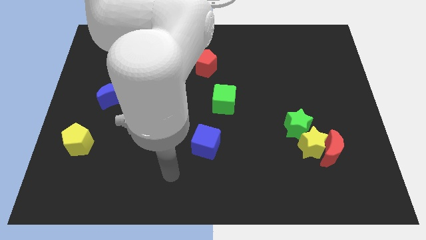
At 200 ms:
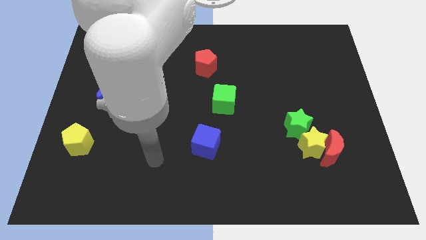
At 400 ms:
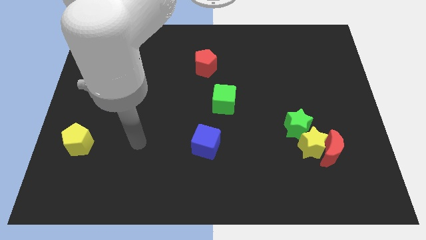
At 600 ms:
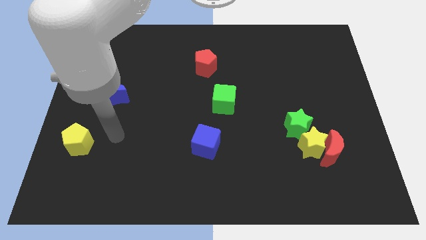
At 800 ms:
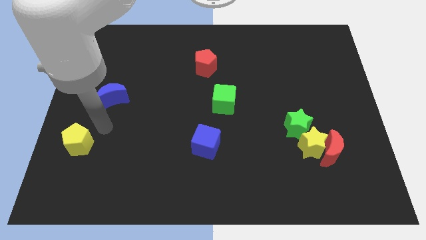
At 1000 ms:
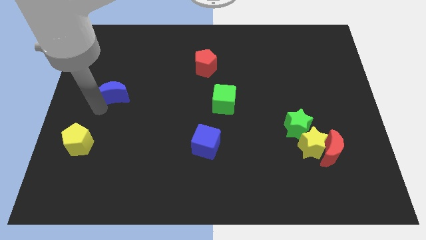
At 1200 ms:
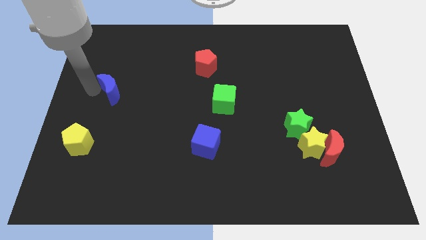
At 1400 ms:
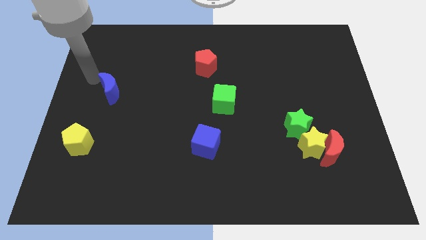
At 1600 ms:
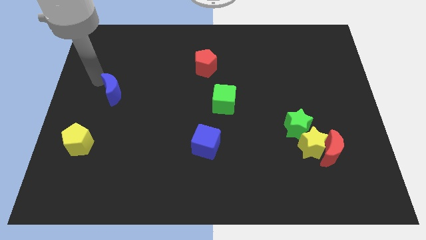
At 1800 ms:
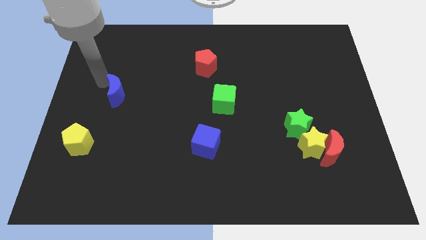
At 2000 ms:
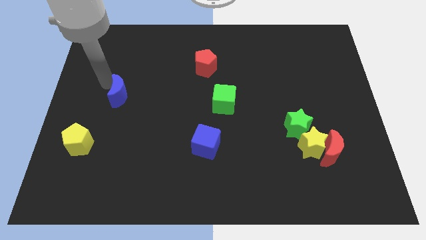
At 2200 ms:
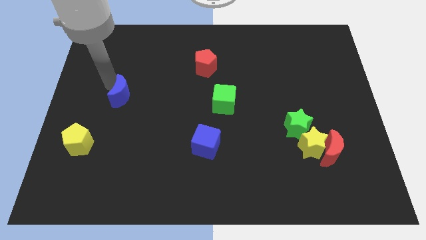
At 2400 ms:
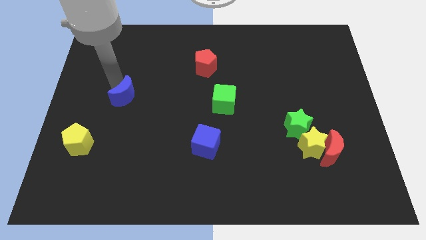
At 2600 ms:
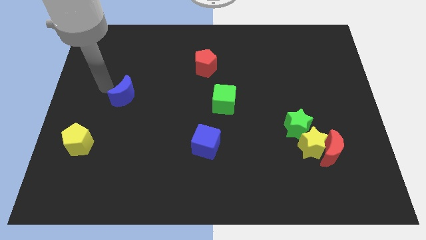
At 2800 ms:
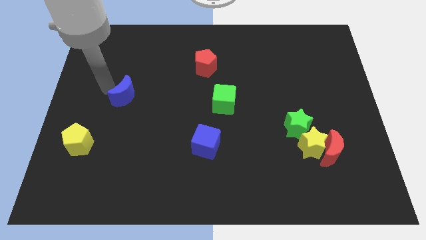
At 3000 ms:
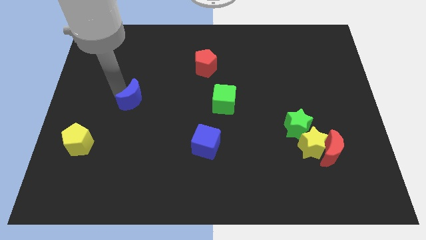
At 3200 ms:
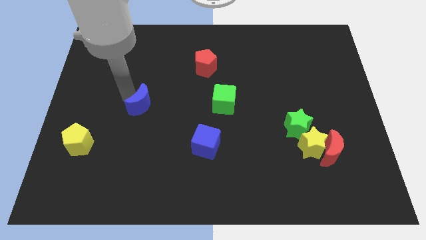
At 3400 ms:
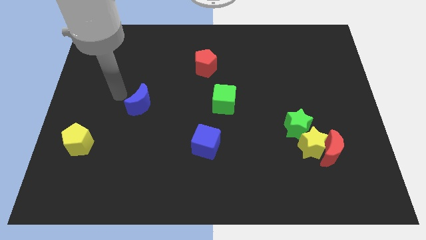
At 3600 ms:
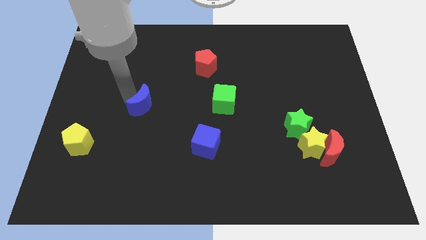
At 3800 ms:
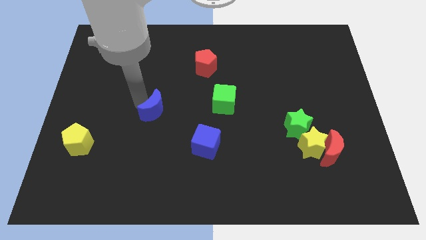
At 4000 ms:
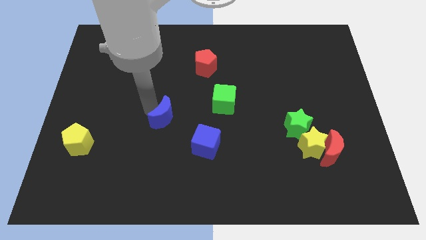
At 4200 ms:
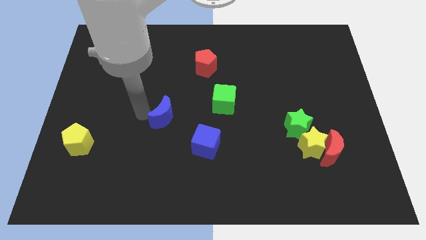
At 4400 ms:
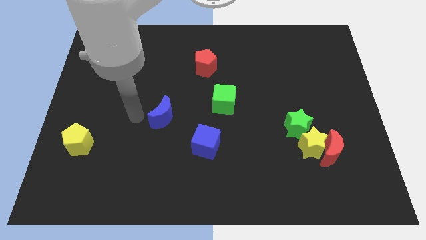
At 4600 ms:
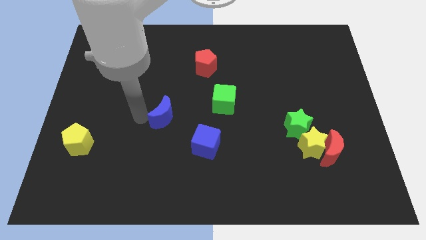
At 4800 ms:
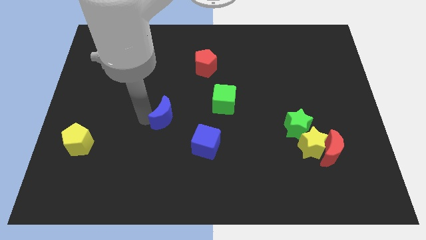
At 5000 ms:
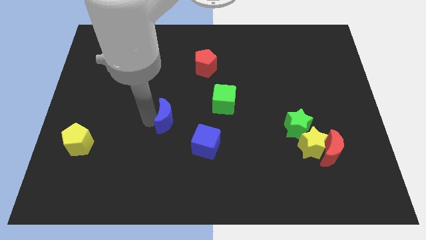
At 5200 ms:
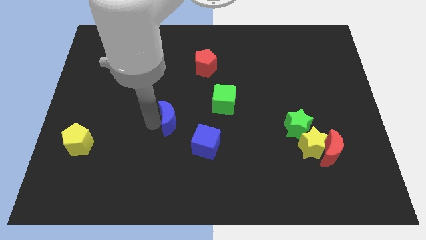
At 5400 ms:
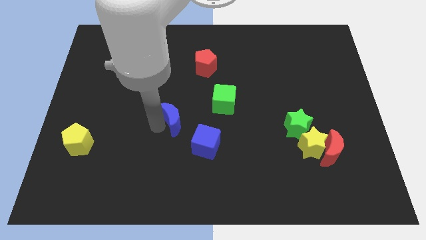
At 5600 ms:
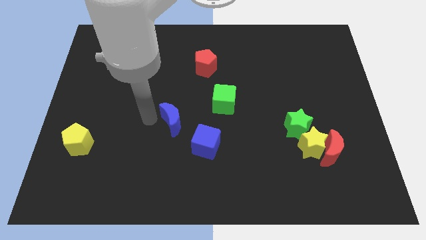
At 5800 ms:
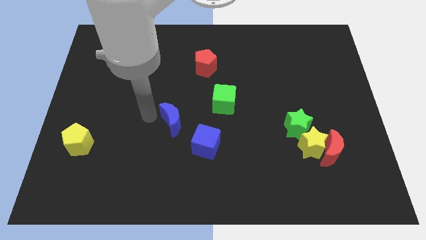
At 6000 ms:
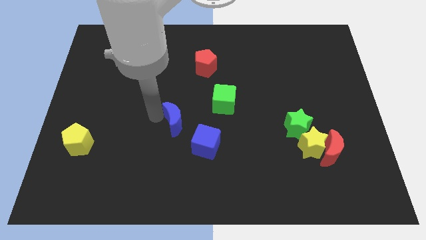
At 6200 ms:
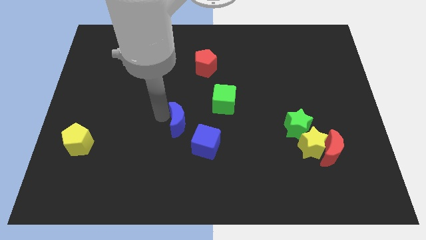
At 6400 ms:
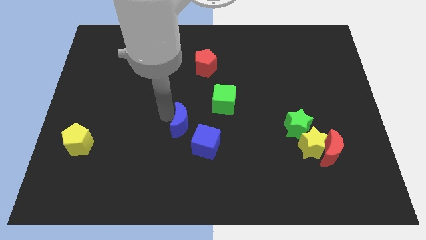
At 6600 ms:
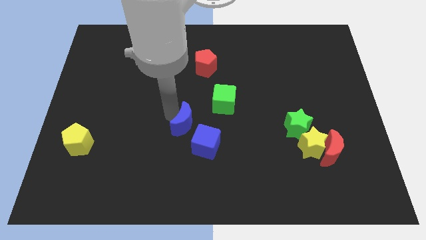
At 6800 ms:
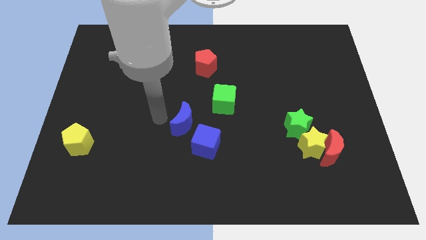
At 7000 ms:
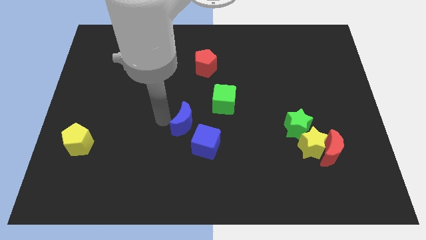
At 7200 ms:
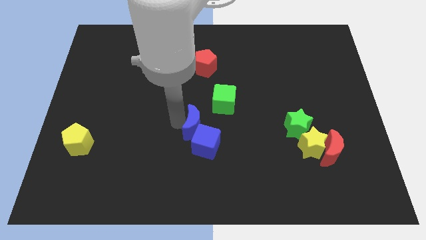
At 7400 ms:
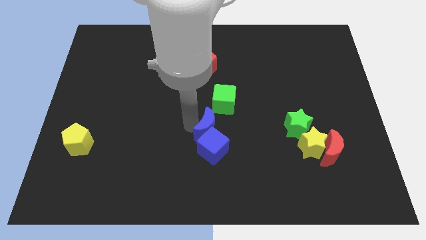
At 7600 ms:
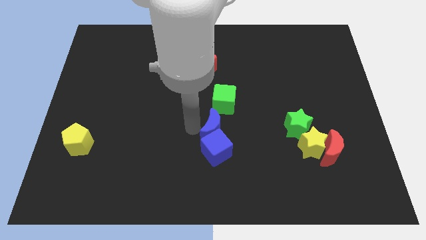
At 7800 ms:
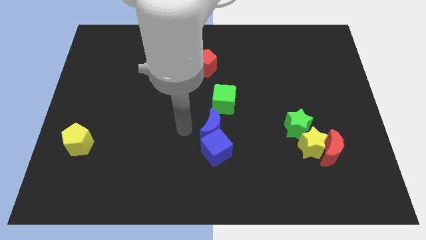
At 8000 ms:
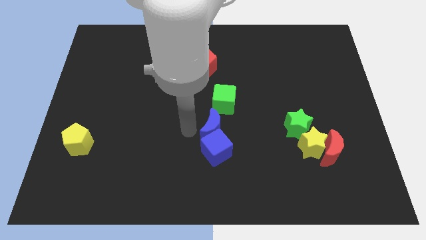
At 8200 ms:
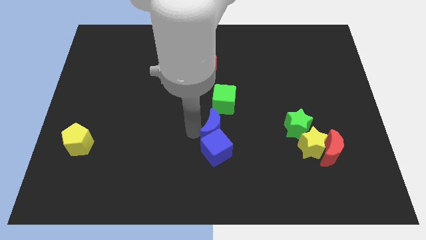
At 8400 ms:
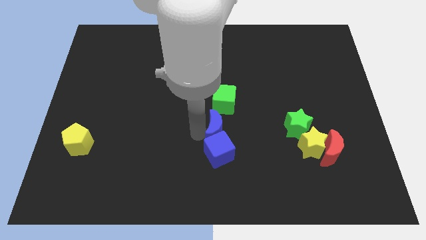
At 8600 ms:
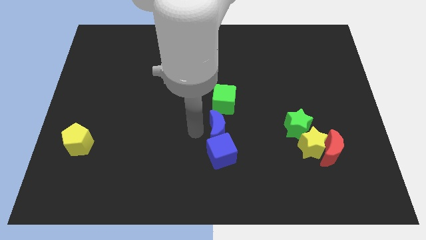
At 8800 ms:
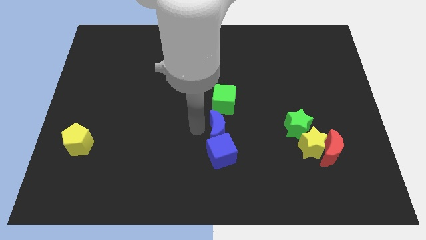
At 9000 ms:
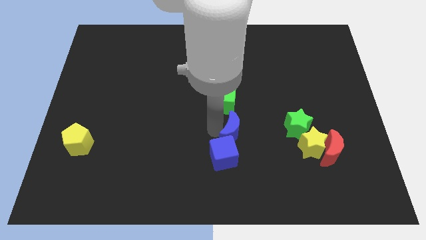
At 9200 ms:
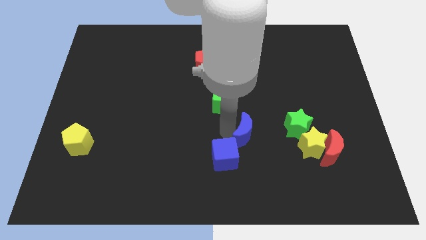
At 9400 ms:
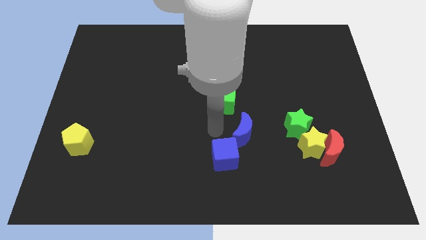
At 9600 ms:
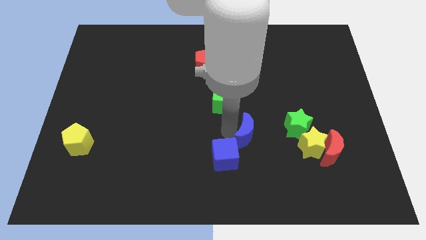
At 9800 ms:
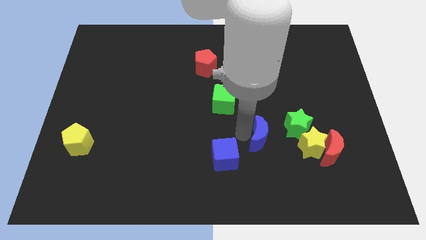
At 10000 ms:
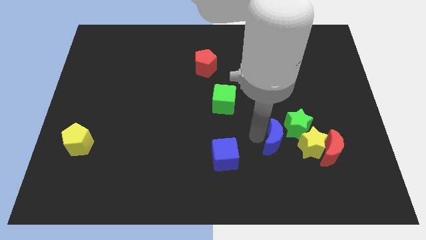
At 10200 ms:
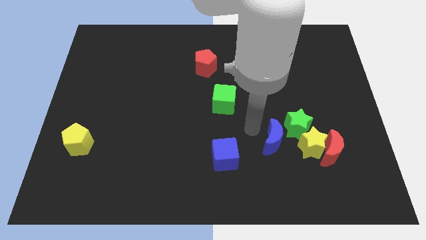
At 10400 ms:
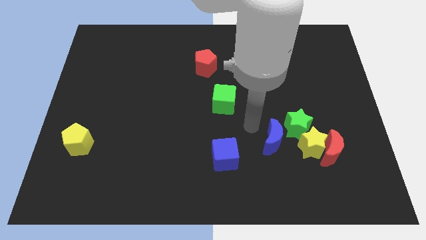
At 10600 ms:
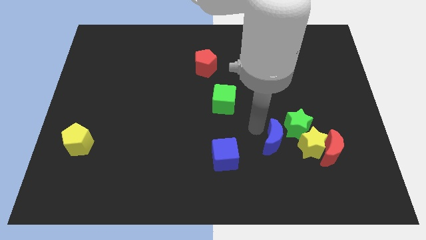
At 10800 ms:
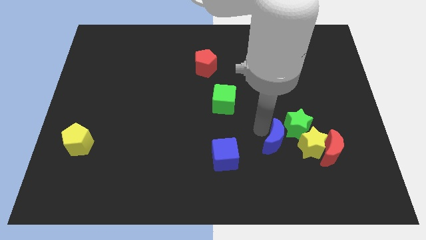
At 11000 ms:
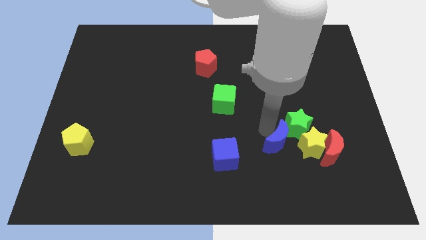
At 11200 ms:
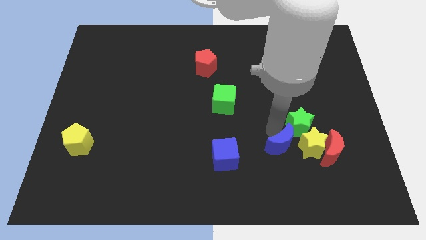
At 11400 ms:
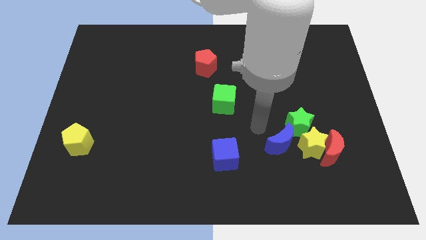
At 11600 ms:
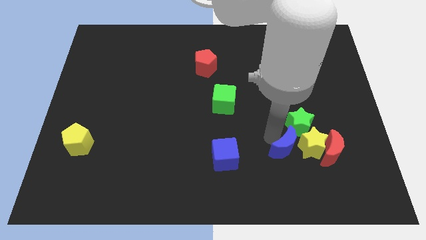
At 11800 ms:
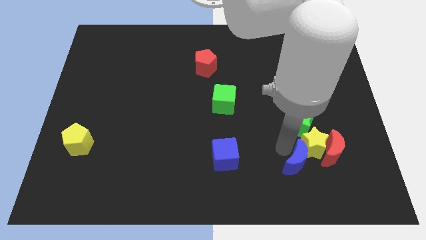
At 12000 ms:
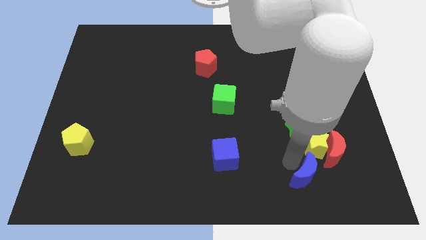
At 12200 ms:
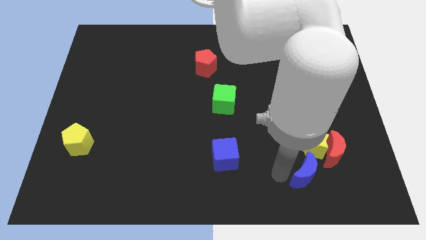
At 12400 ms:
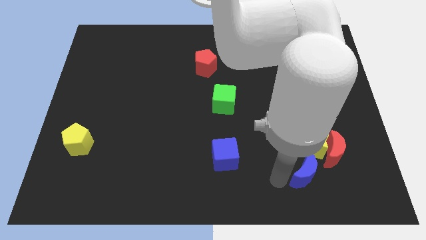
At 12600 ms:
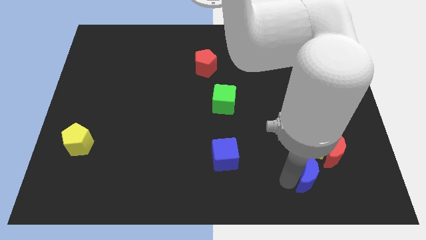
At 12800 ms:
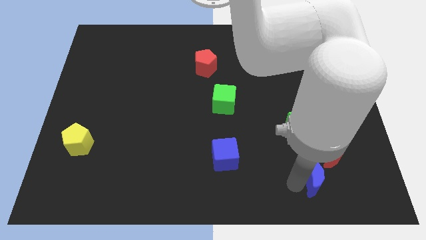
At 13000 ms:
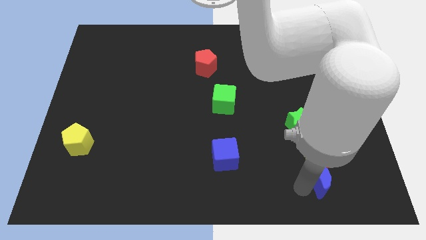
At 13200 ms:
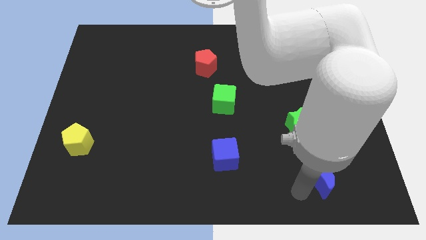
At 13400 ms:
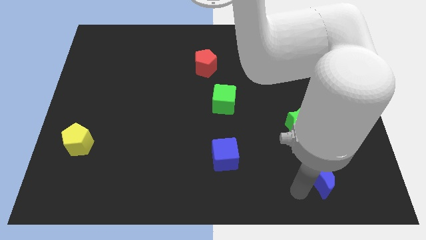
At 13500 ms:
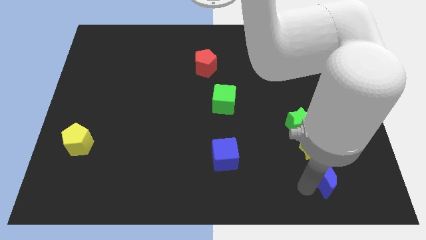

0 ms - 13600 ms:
put the blue moon to the bottom right side of the yellow star
